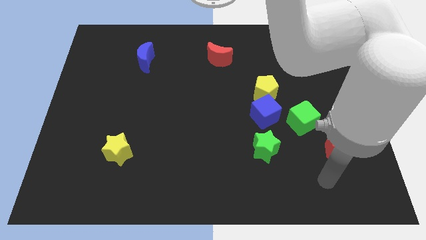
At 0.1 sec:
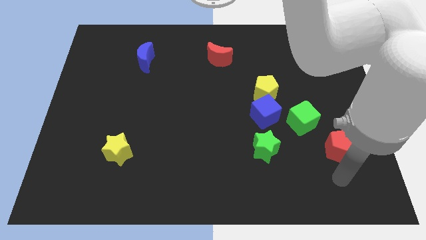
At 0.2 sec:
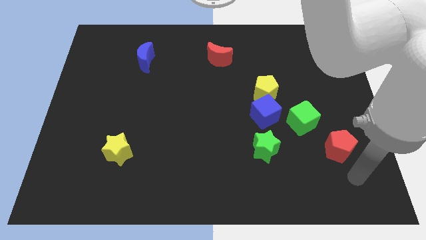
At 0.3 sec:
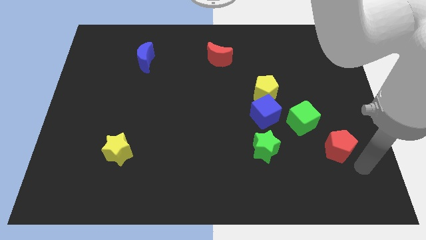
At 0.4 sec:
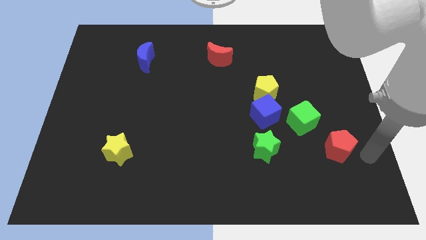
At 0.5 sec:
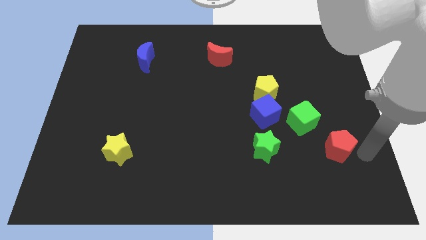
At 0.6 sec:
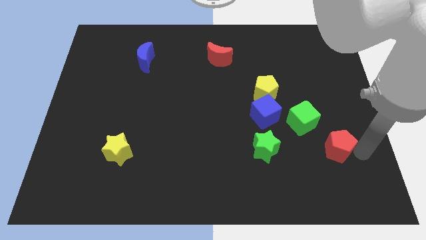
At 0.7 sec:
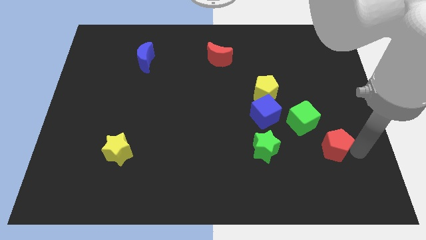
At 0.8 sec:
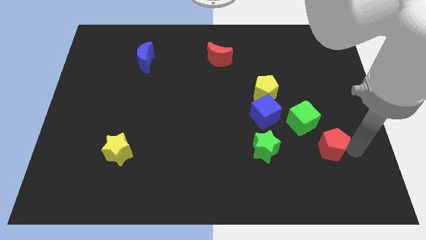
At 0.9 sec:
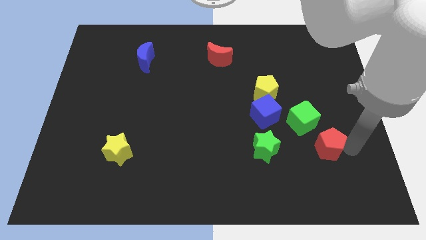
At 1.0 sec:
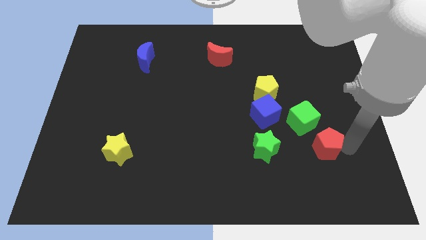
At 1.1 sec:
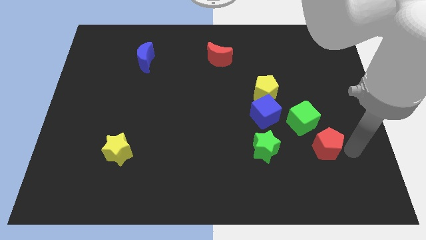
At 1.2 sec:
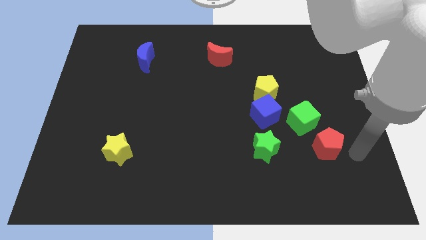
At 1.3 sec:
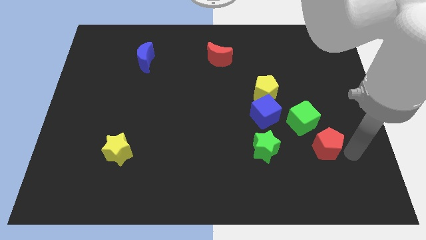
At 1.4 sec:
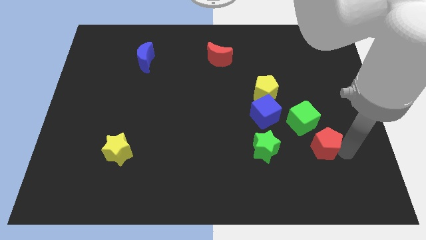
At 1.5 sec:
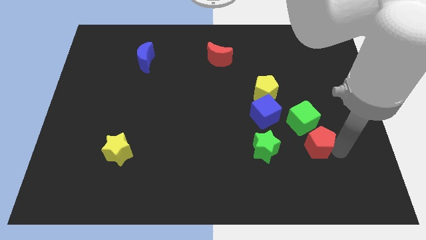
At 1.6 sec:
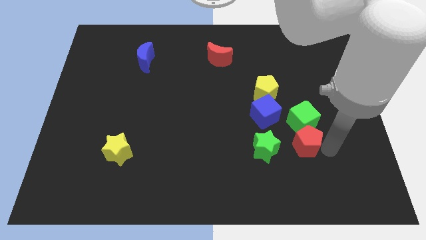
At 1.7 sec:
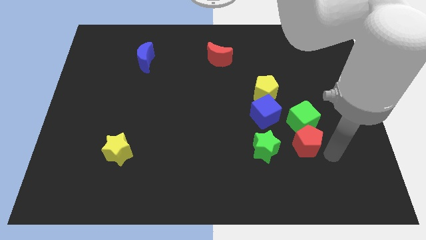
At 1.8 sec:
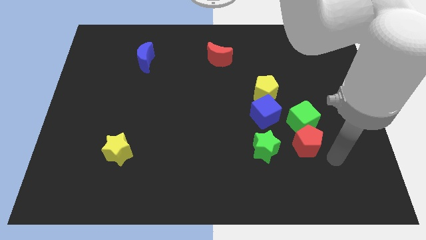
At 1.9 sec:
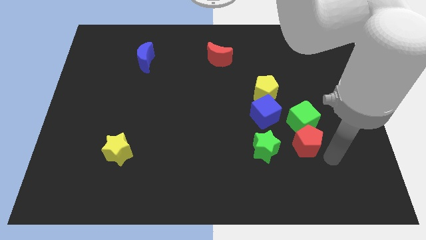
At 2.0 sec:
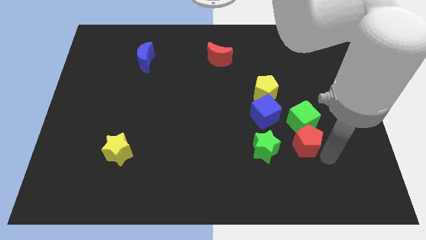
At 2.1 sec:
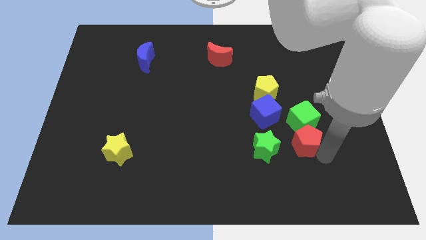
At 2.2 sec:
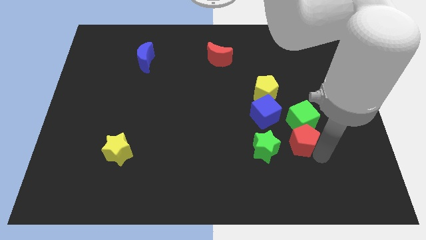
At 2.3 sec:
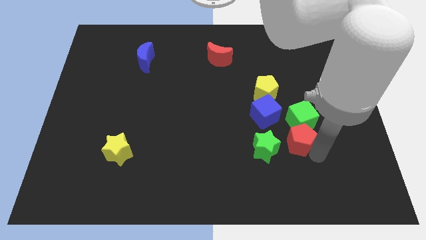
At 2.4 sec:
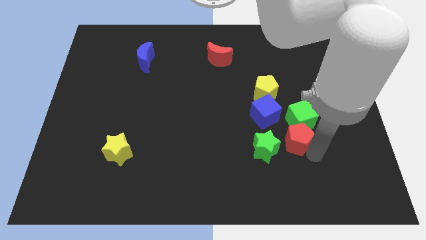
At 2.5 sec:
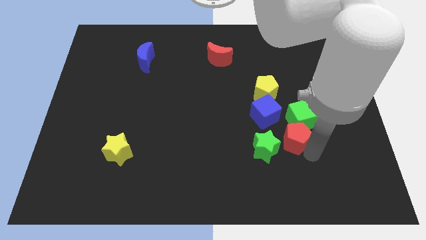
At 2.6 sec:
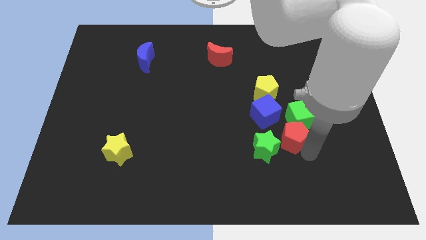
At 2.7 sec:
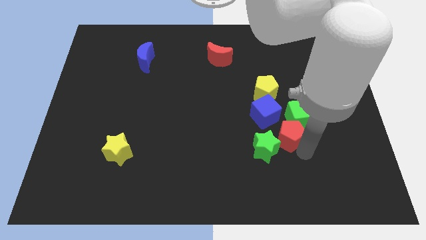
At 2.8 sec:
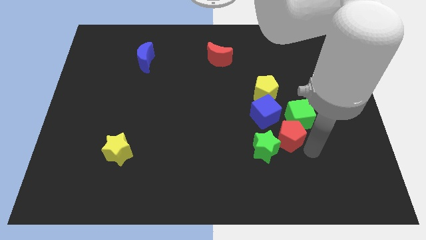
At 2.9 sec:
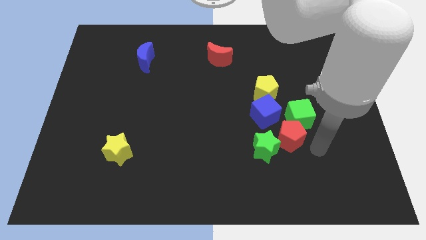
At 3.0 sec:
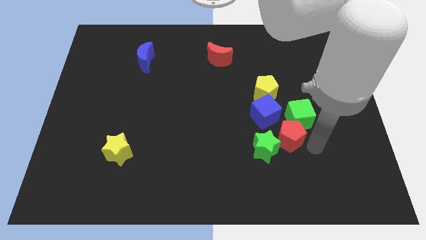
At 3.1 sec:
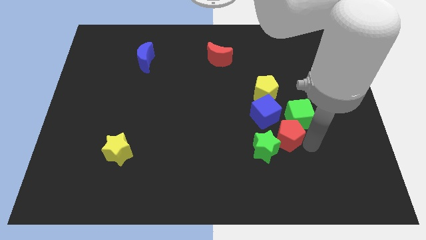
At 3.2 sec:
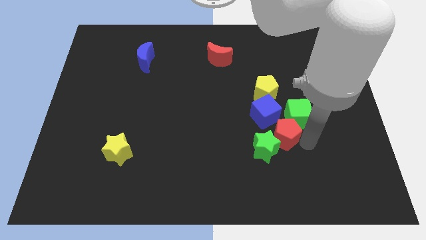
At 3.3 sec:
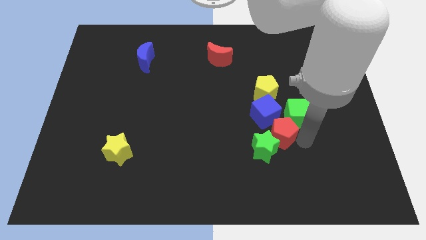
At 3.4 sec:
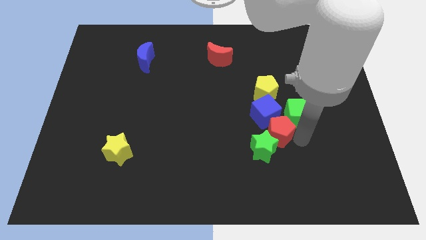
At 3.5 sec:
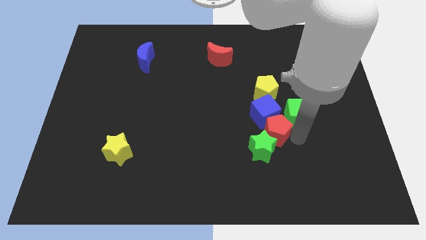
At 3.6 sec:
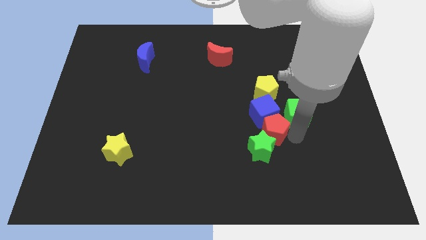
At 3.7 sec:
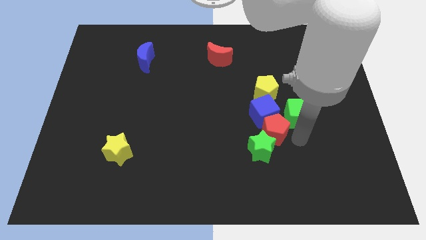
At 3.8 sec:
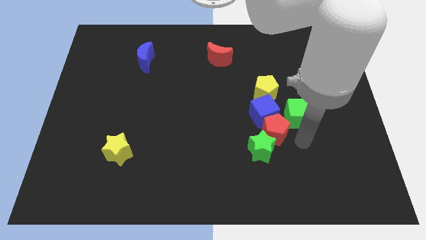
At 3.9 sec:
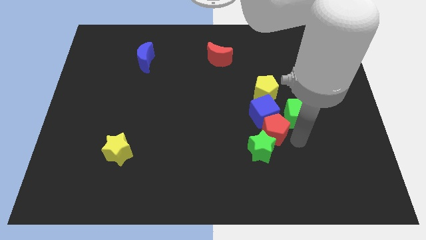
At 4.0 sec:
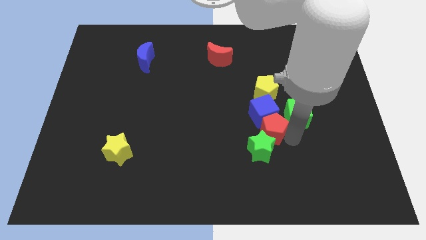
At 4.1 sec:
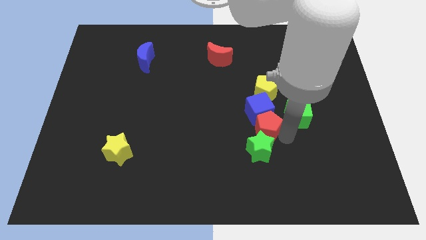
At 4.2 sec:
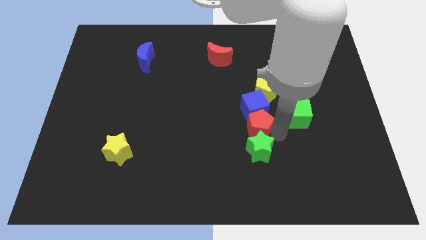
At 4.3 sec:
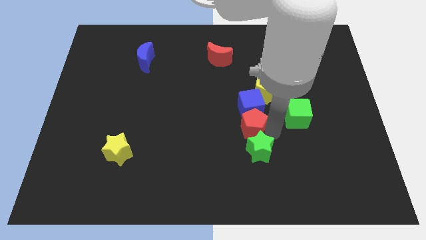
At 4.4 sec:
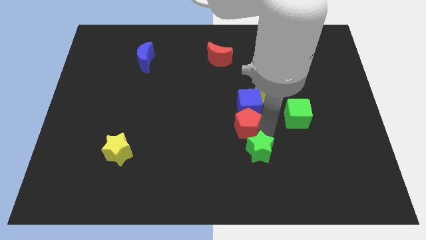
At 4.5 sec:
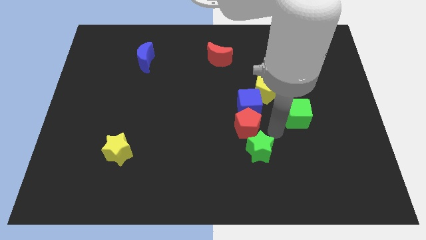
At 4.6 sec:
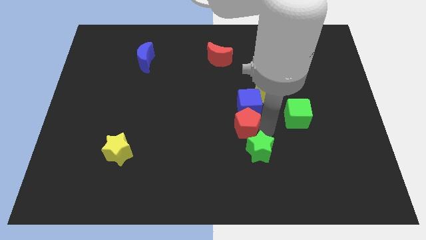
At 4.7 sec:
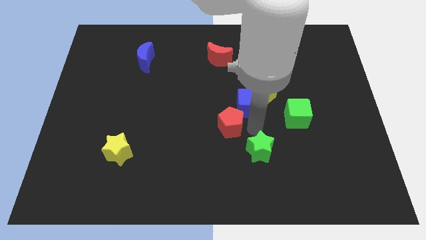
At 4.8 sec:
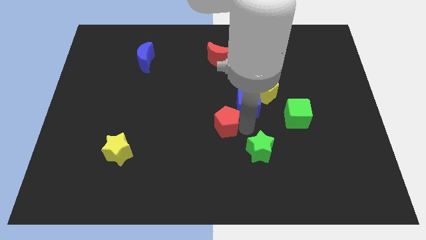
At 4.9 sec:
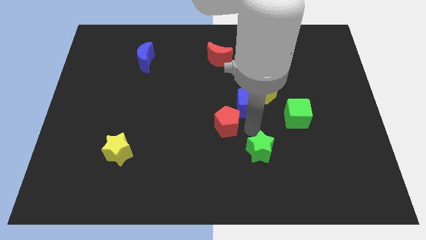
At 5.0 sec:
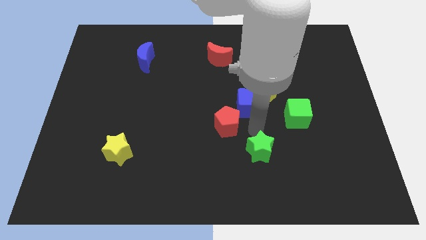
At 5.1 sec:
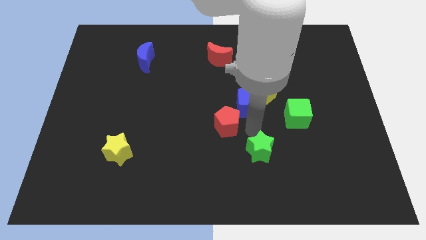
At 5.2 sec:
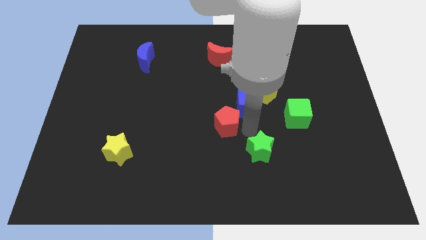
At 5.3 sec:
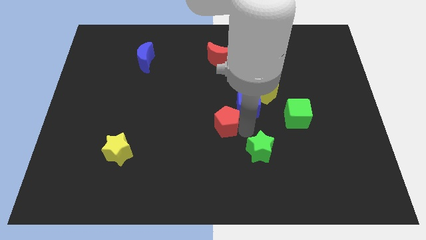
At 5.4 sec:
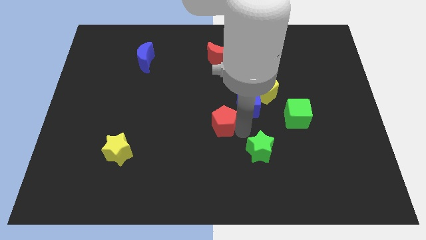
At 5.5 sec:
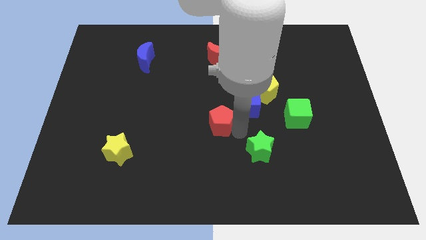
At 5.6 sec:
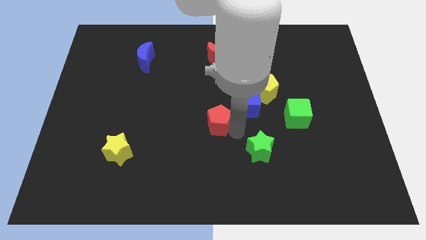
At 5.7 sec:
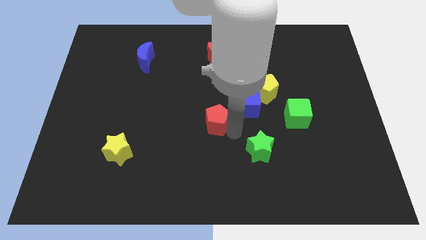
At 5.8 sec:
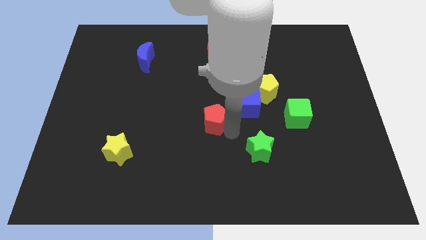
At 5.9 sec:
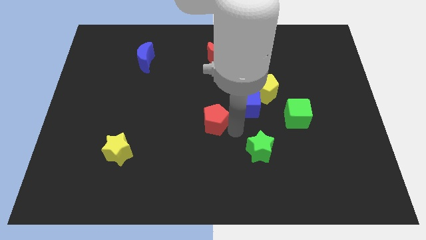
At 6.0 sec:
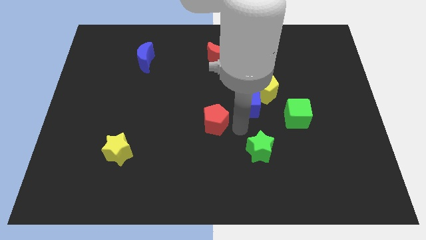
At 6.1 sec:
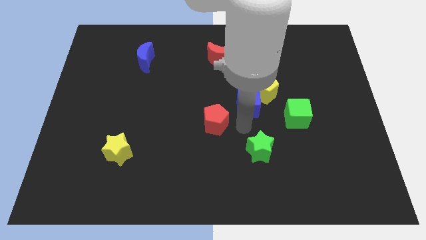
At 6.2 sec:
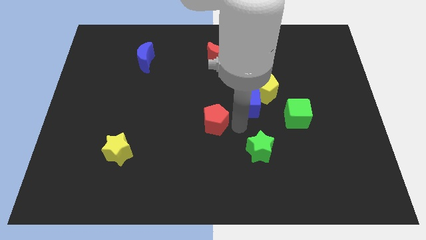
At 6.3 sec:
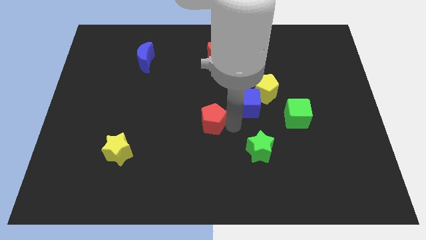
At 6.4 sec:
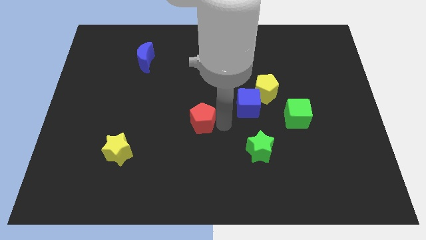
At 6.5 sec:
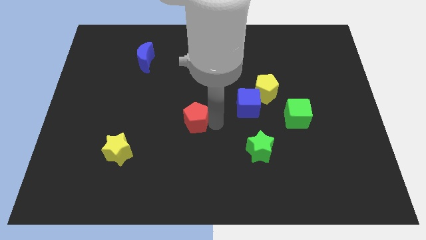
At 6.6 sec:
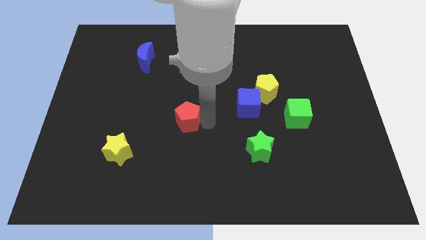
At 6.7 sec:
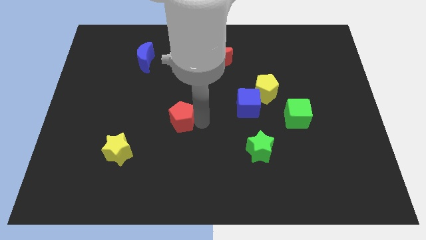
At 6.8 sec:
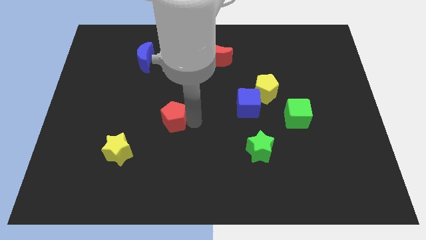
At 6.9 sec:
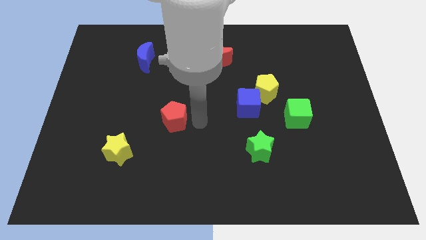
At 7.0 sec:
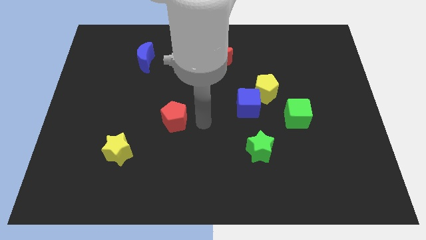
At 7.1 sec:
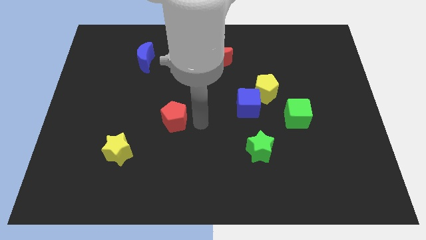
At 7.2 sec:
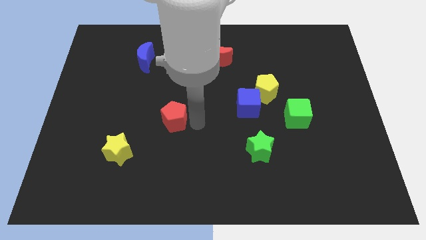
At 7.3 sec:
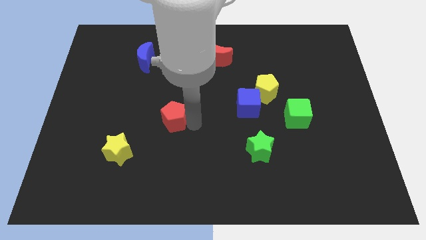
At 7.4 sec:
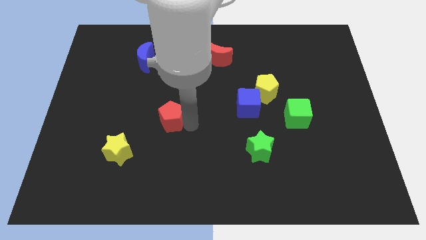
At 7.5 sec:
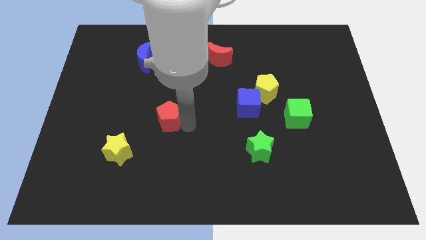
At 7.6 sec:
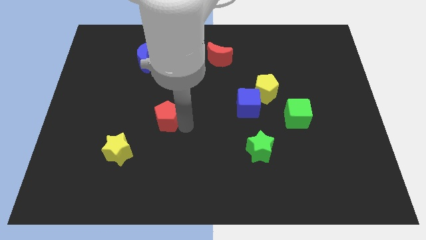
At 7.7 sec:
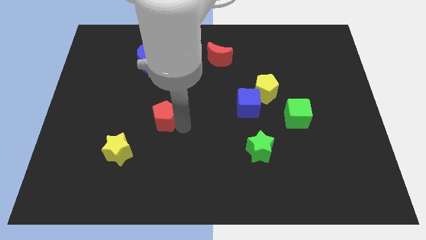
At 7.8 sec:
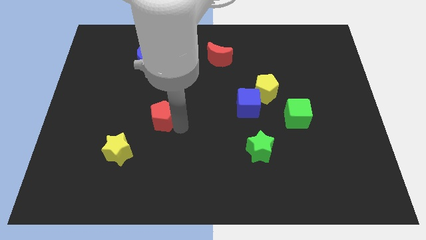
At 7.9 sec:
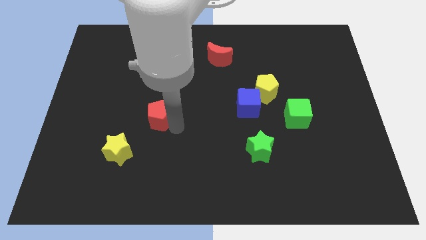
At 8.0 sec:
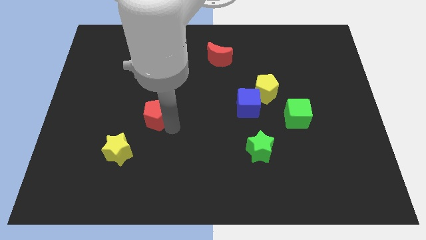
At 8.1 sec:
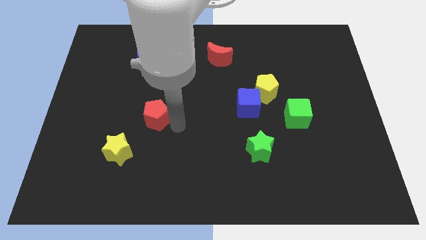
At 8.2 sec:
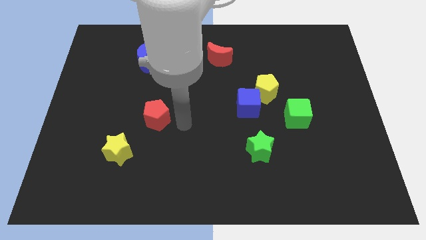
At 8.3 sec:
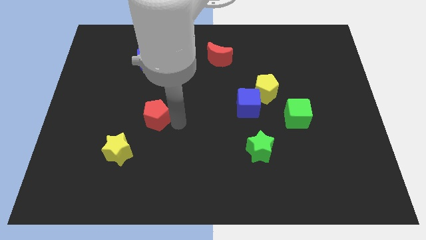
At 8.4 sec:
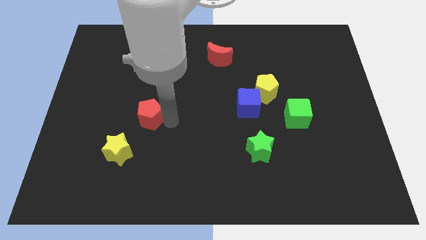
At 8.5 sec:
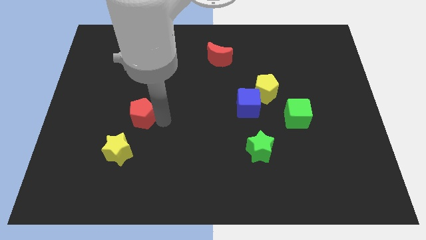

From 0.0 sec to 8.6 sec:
move the red pentagon to the top of the yellow star
